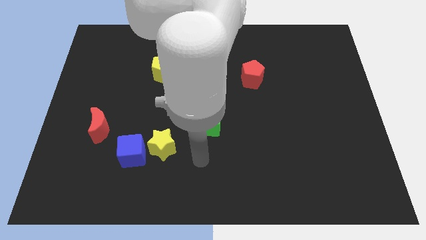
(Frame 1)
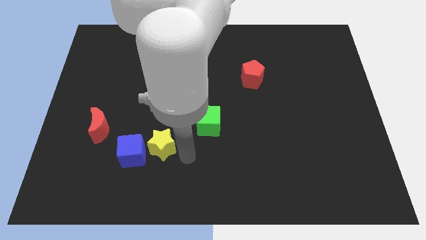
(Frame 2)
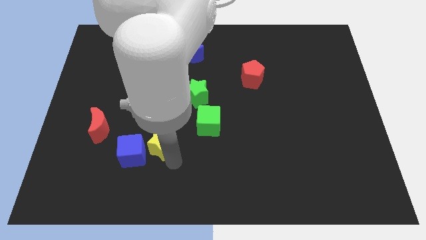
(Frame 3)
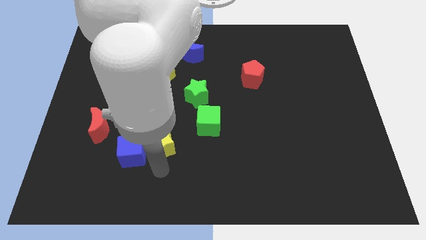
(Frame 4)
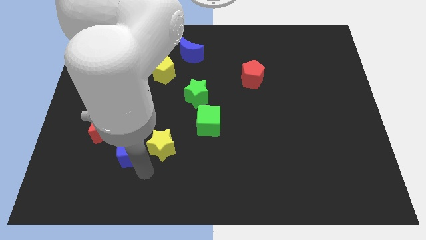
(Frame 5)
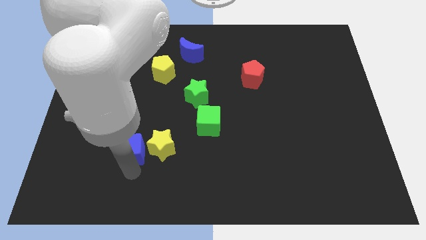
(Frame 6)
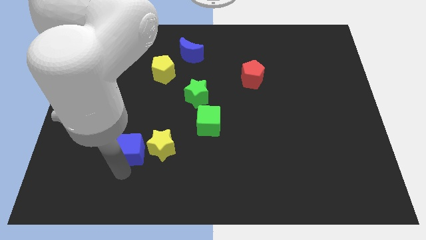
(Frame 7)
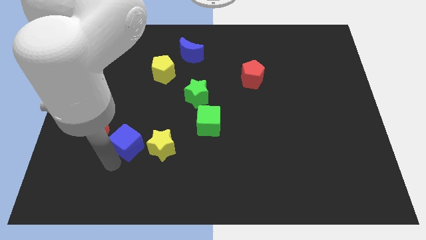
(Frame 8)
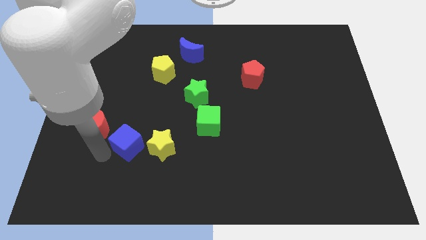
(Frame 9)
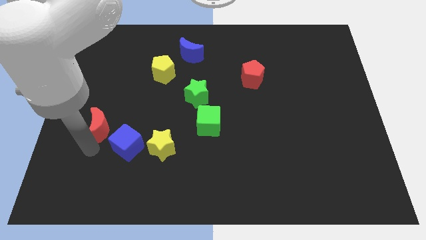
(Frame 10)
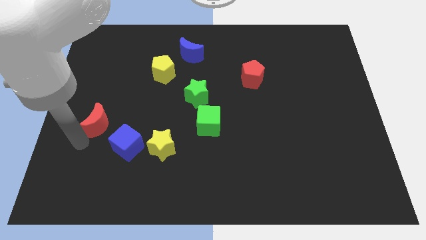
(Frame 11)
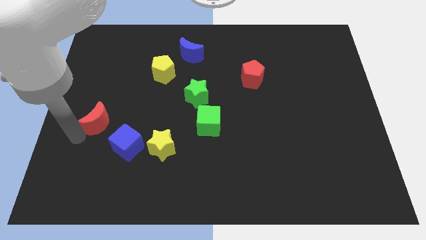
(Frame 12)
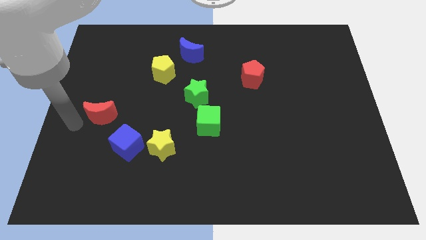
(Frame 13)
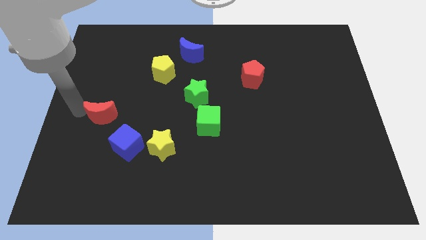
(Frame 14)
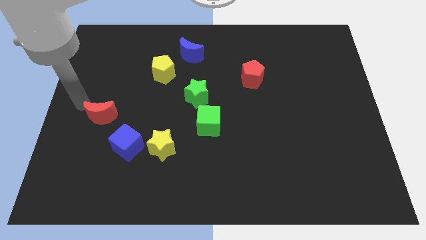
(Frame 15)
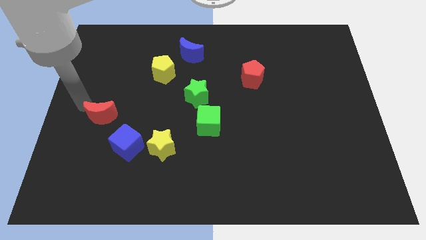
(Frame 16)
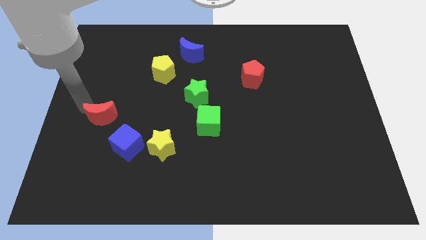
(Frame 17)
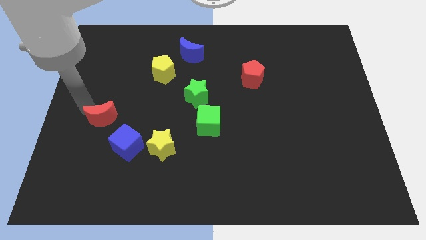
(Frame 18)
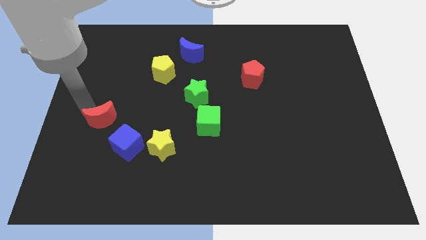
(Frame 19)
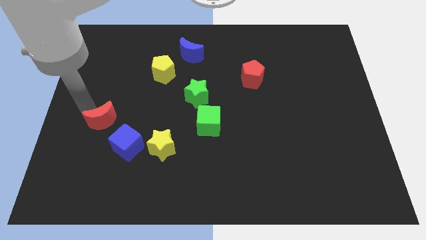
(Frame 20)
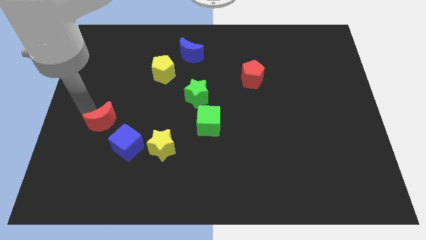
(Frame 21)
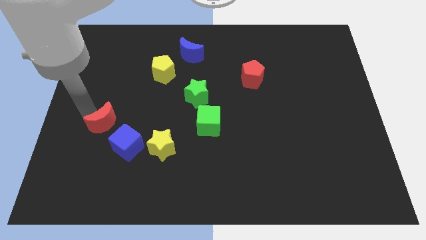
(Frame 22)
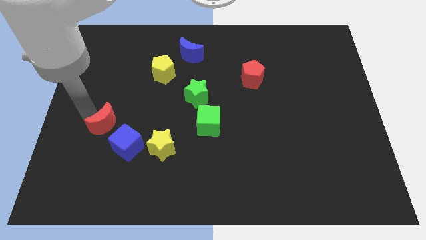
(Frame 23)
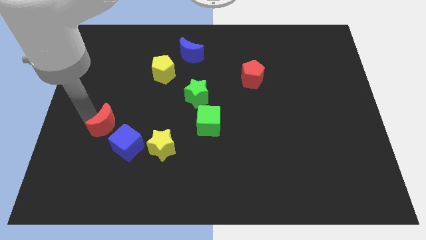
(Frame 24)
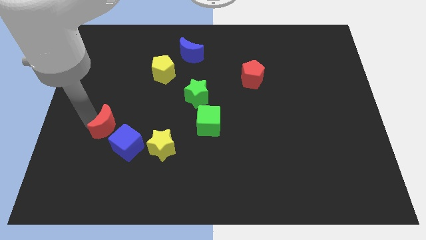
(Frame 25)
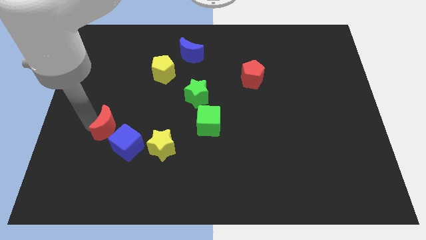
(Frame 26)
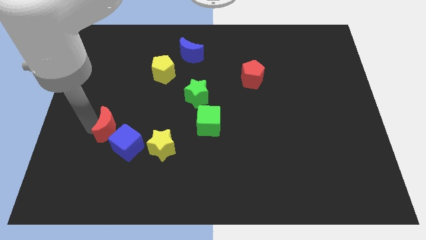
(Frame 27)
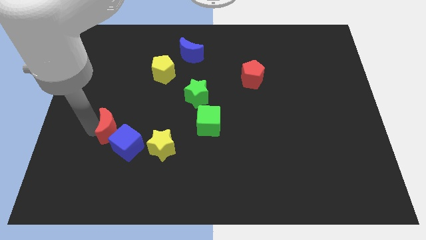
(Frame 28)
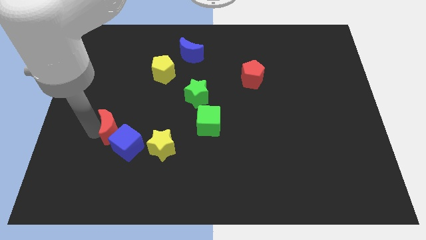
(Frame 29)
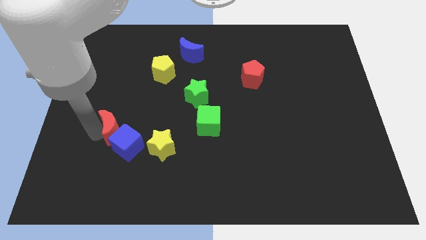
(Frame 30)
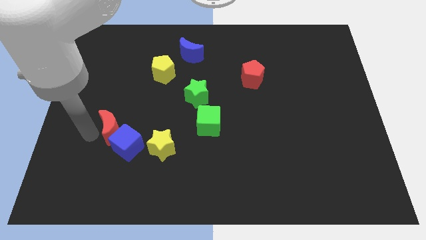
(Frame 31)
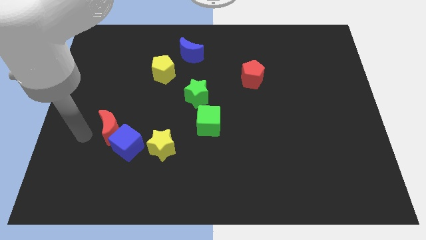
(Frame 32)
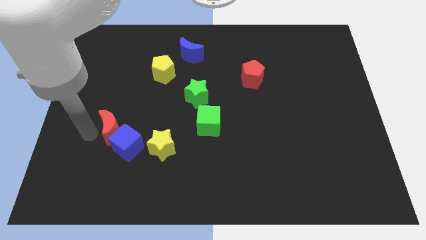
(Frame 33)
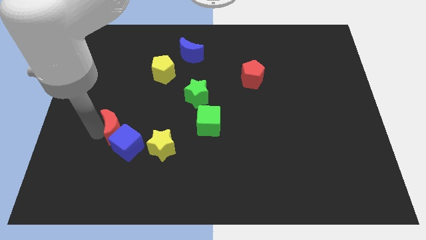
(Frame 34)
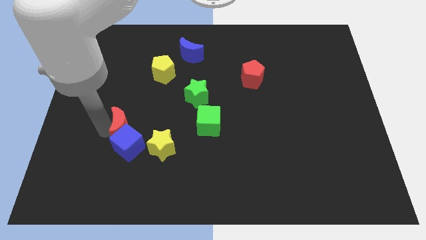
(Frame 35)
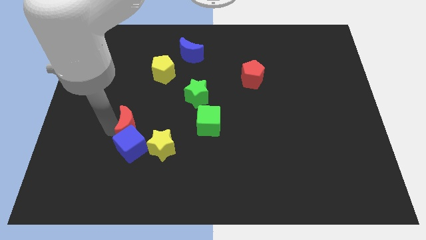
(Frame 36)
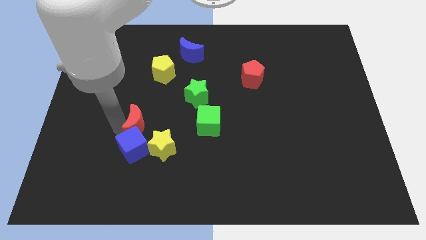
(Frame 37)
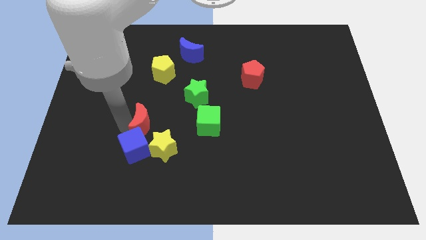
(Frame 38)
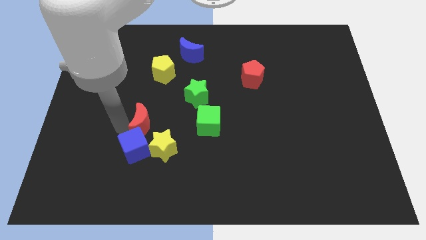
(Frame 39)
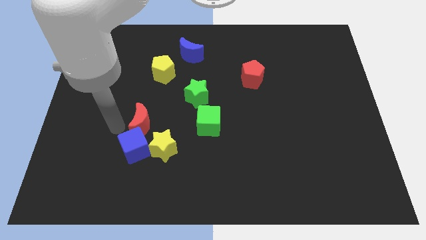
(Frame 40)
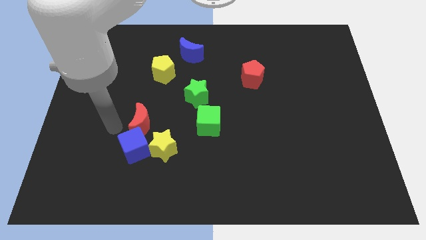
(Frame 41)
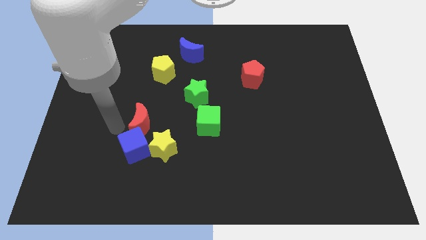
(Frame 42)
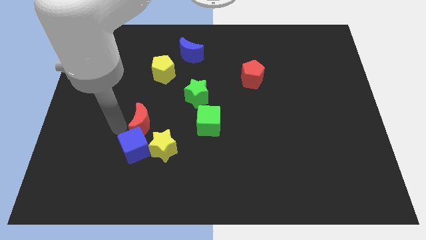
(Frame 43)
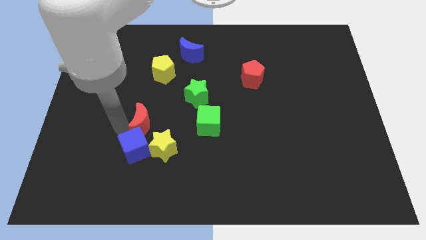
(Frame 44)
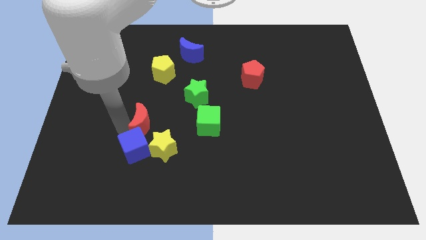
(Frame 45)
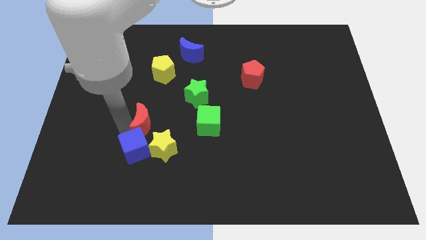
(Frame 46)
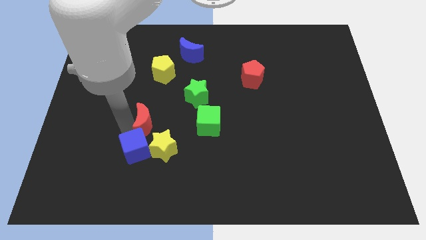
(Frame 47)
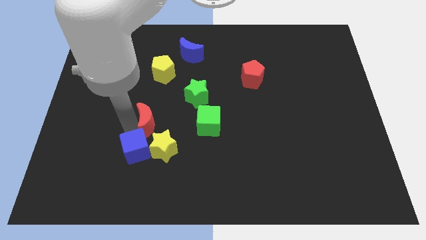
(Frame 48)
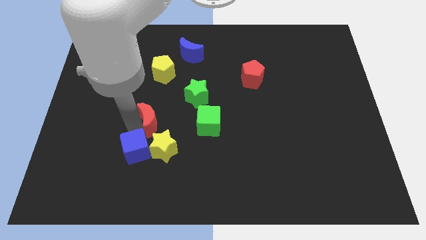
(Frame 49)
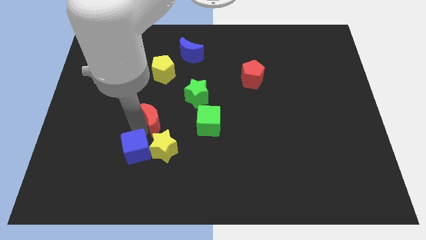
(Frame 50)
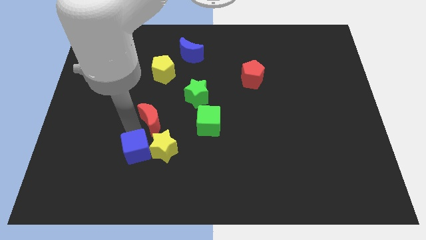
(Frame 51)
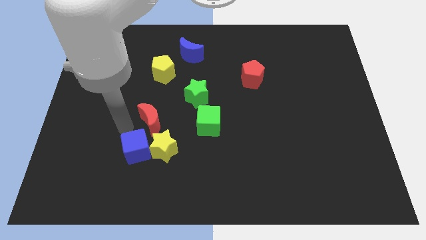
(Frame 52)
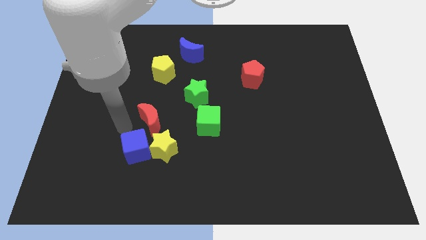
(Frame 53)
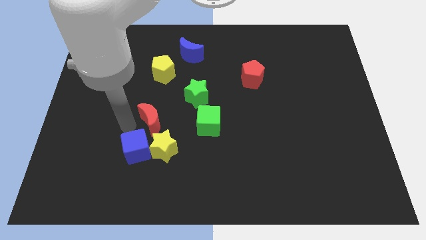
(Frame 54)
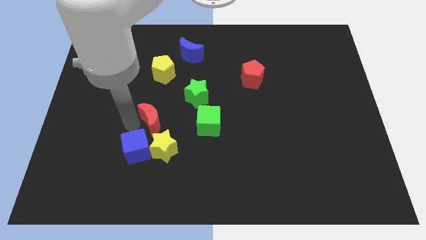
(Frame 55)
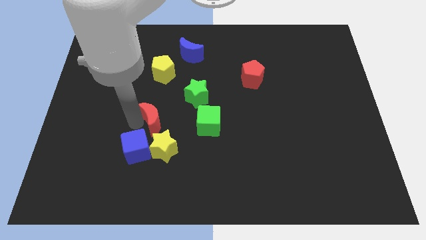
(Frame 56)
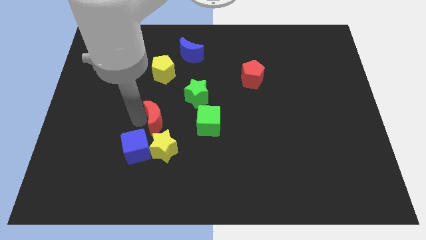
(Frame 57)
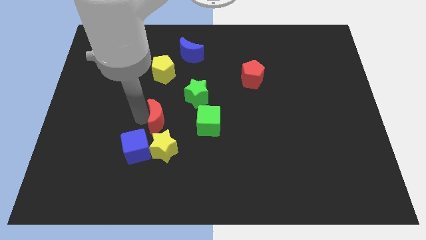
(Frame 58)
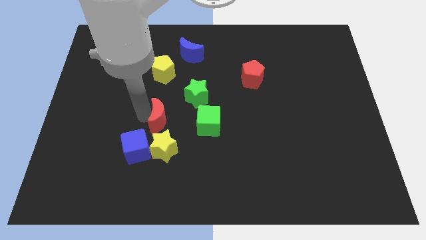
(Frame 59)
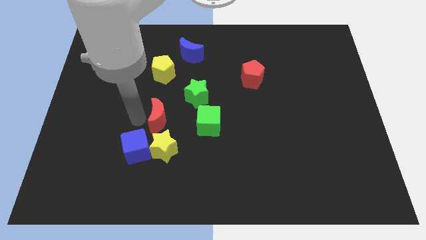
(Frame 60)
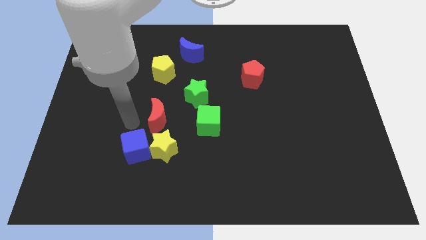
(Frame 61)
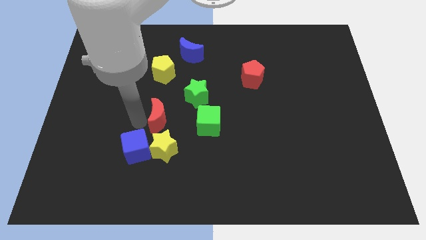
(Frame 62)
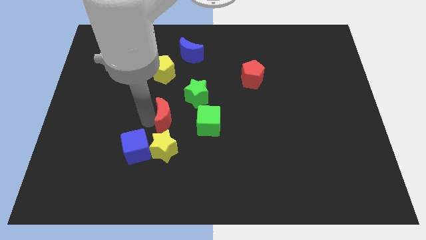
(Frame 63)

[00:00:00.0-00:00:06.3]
push the red moon to the middle
